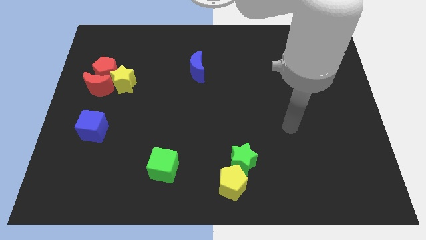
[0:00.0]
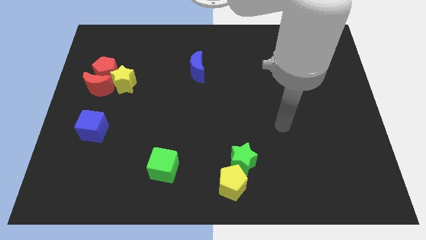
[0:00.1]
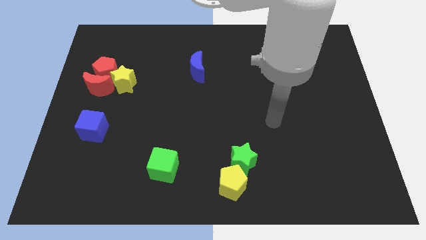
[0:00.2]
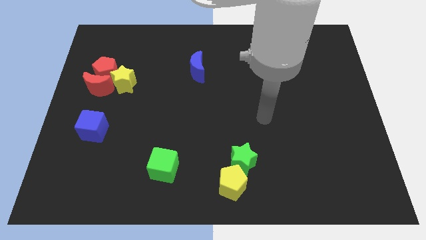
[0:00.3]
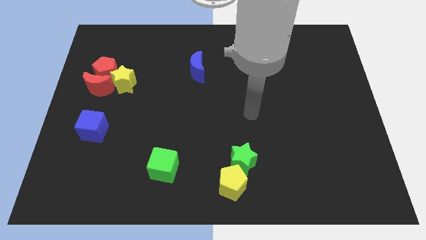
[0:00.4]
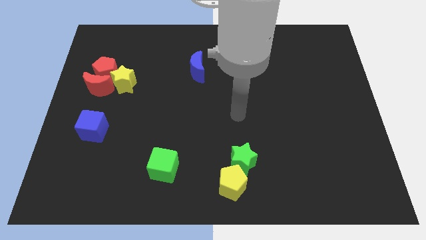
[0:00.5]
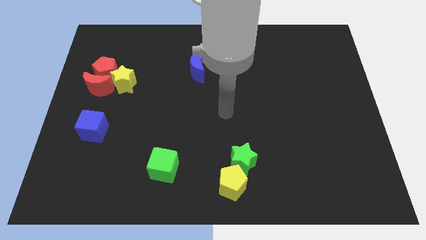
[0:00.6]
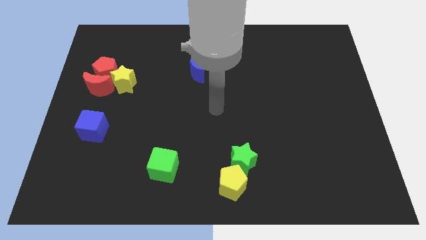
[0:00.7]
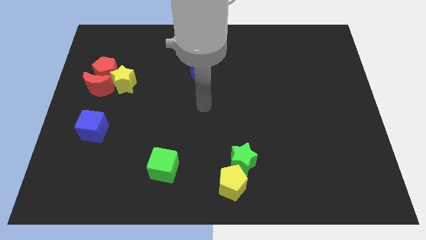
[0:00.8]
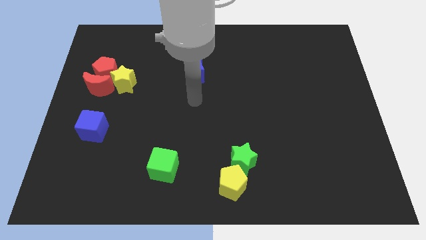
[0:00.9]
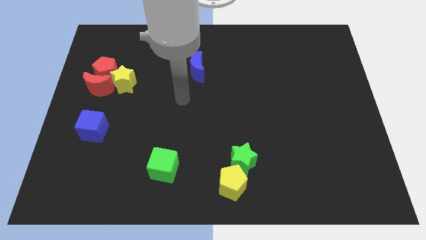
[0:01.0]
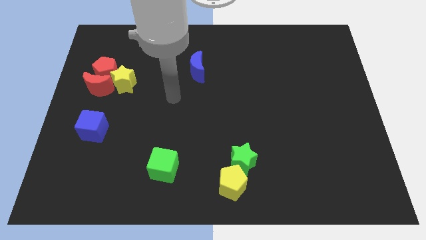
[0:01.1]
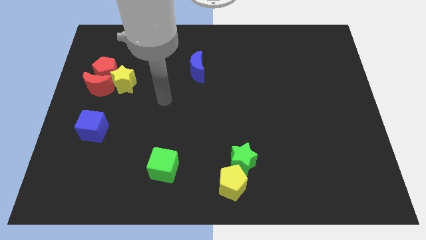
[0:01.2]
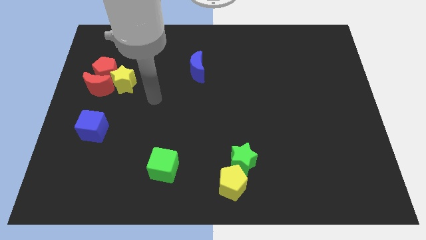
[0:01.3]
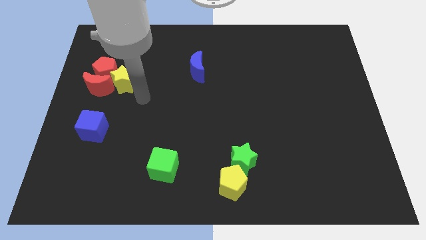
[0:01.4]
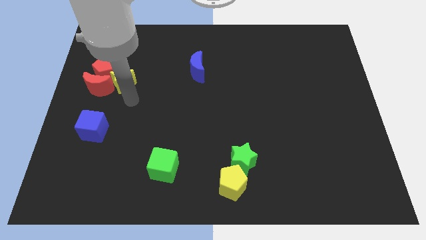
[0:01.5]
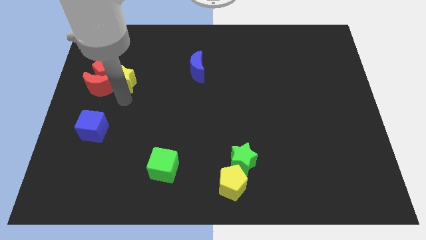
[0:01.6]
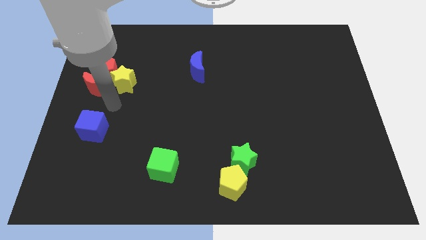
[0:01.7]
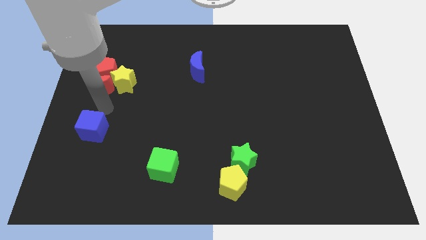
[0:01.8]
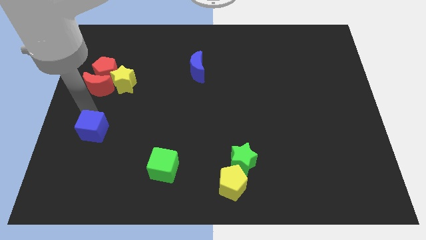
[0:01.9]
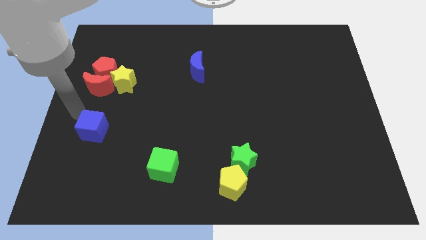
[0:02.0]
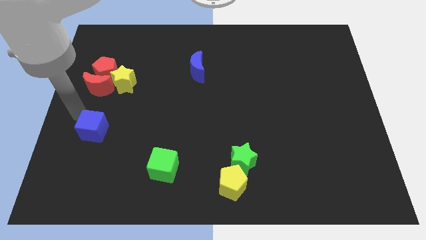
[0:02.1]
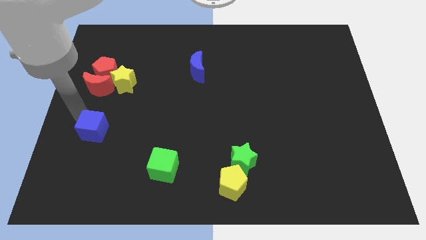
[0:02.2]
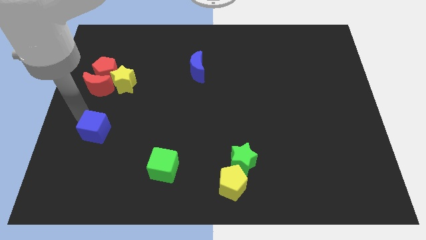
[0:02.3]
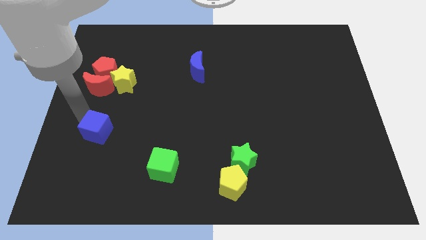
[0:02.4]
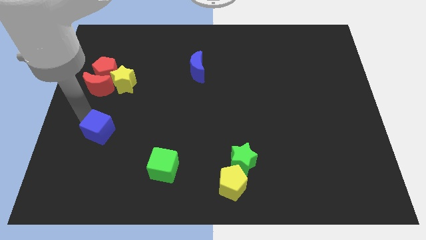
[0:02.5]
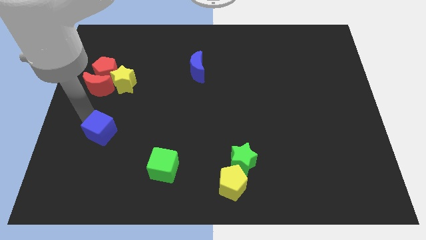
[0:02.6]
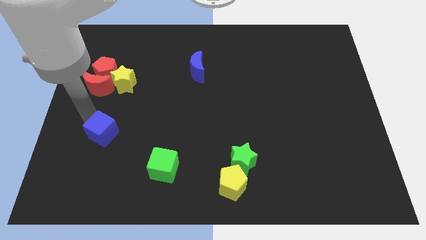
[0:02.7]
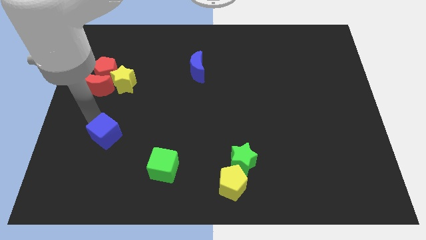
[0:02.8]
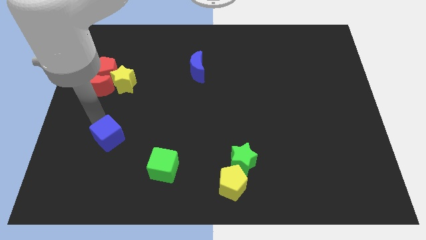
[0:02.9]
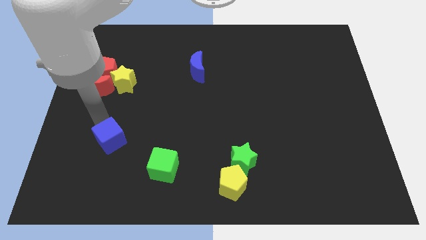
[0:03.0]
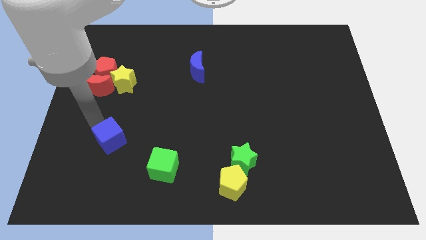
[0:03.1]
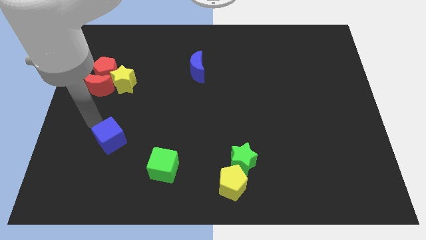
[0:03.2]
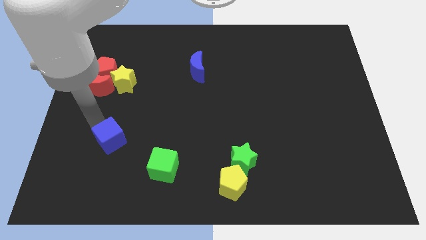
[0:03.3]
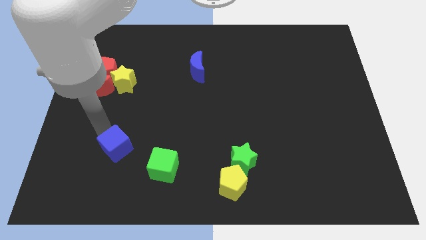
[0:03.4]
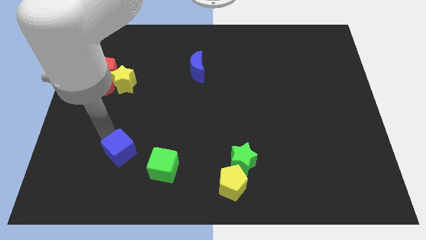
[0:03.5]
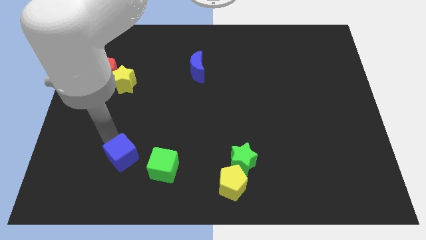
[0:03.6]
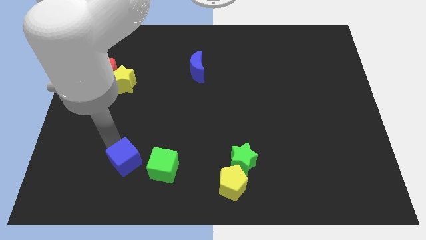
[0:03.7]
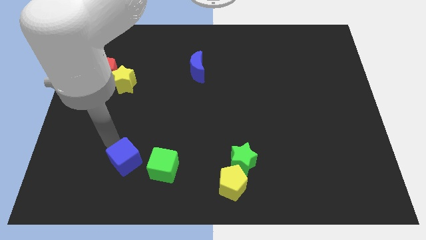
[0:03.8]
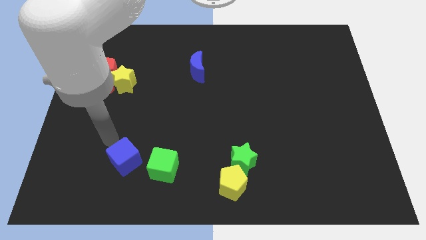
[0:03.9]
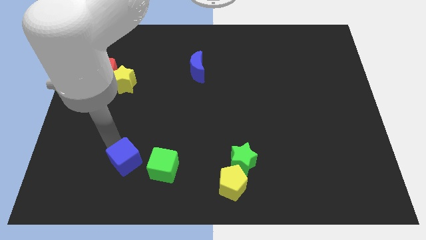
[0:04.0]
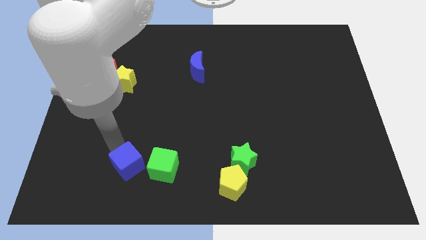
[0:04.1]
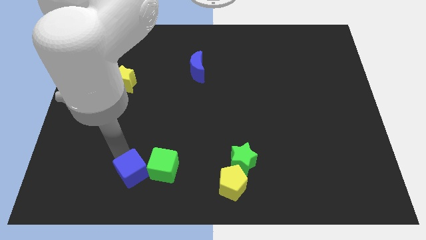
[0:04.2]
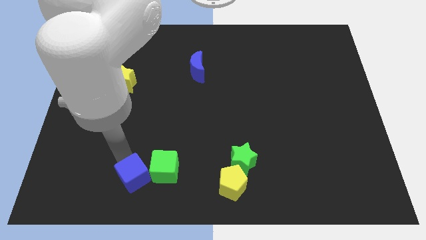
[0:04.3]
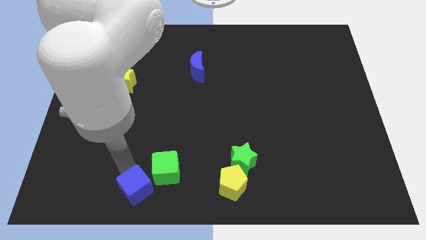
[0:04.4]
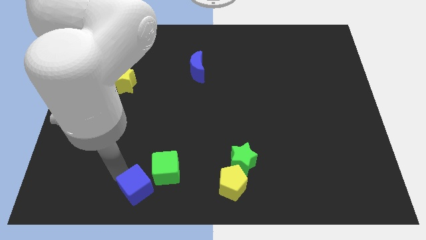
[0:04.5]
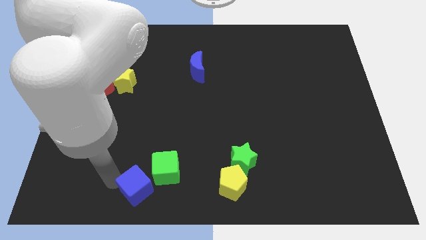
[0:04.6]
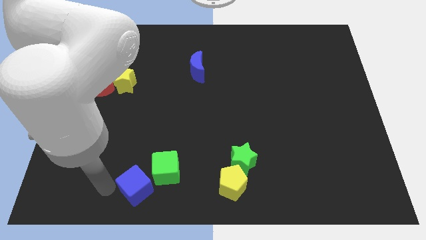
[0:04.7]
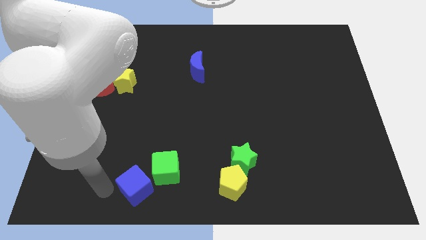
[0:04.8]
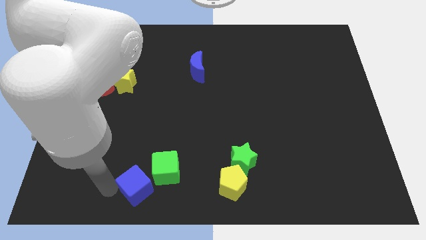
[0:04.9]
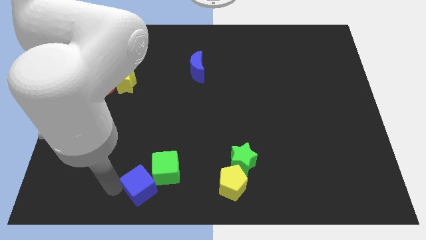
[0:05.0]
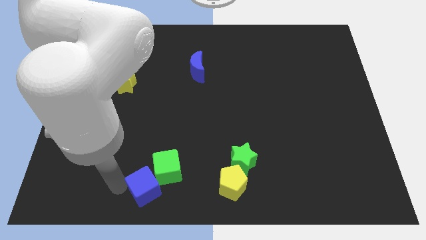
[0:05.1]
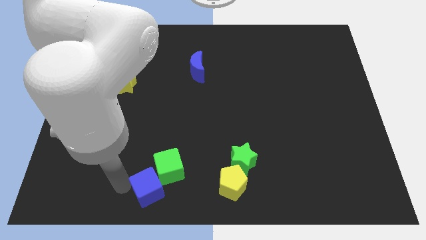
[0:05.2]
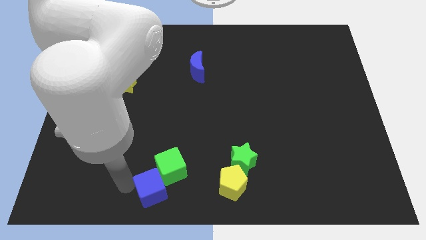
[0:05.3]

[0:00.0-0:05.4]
slide the blue cube just left of the yellow pentagon

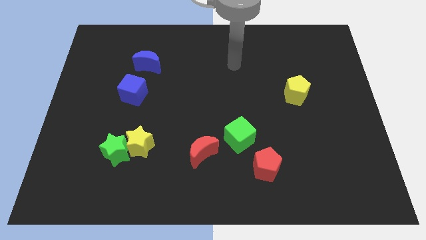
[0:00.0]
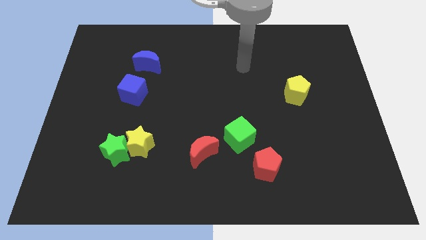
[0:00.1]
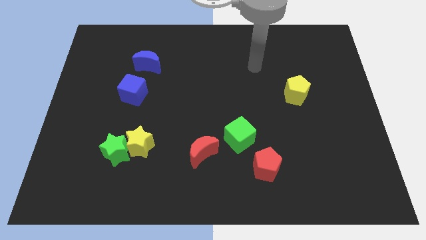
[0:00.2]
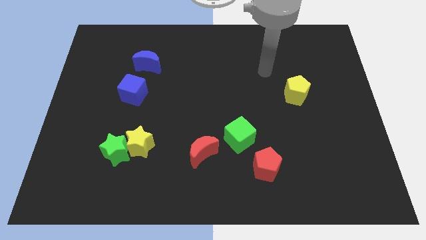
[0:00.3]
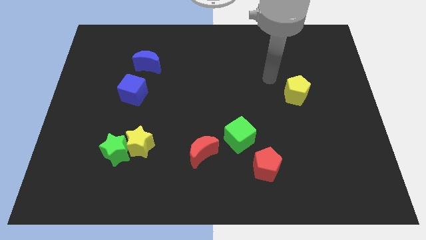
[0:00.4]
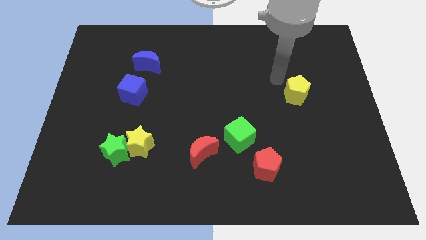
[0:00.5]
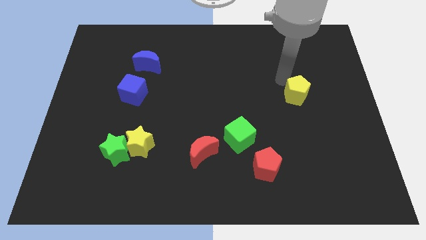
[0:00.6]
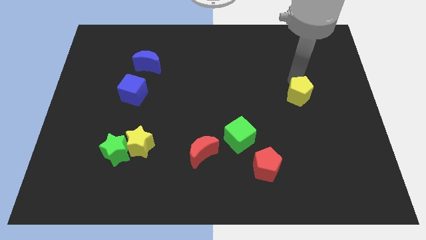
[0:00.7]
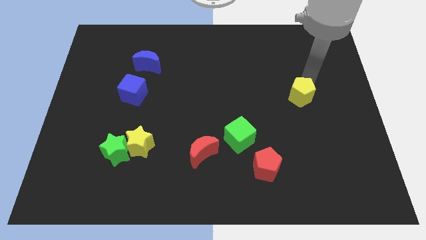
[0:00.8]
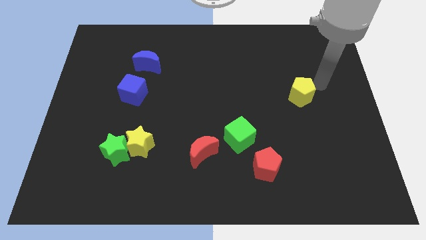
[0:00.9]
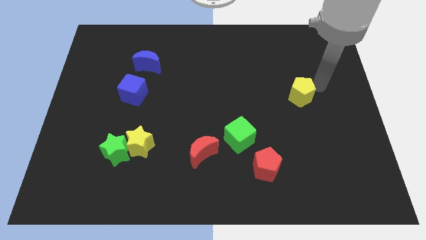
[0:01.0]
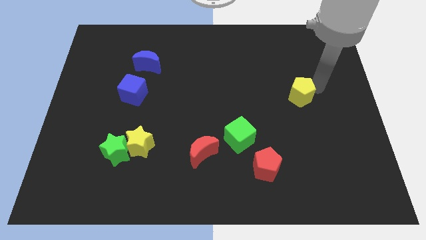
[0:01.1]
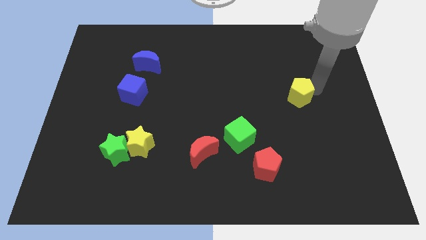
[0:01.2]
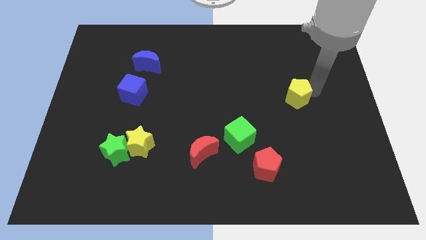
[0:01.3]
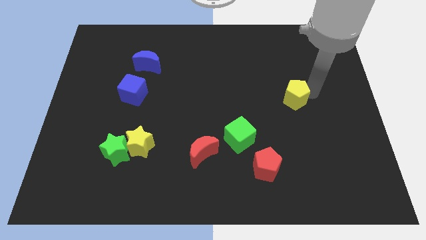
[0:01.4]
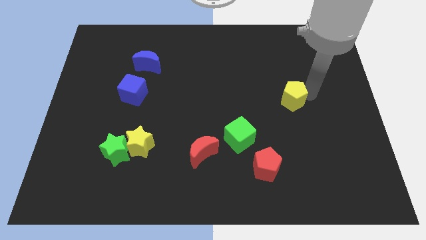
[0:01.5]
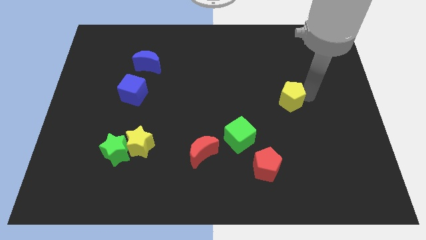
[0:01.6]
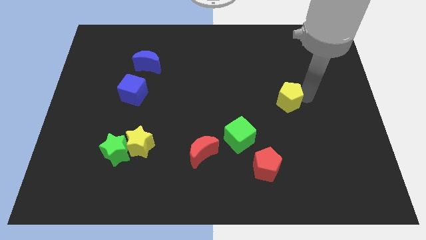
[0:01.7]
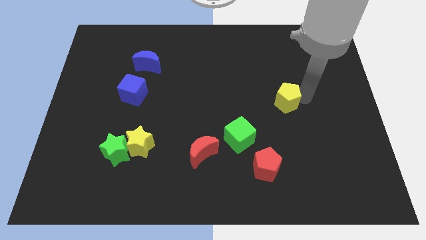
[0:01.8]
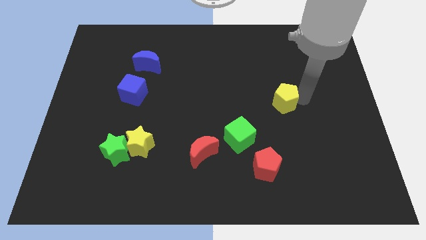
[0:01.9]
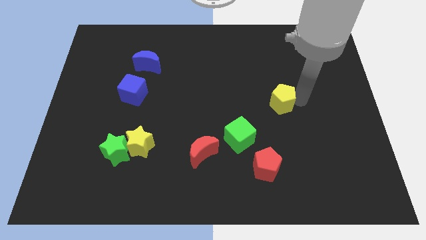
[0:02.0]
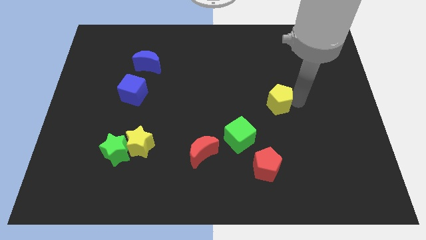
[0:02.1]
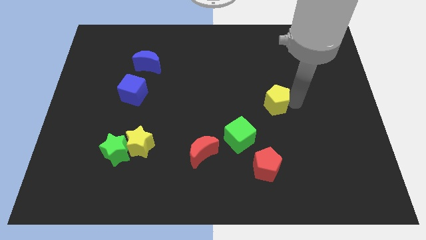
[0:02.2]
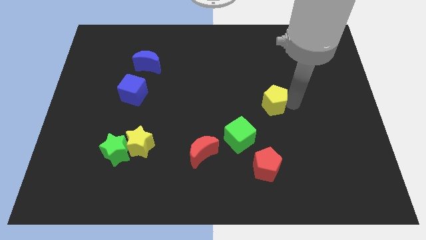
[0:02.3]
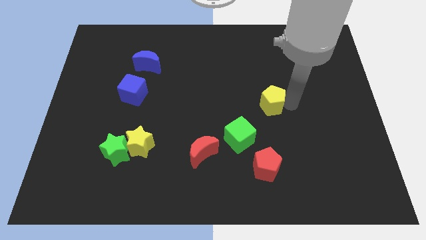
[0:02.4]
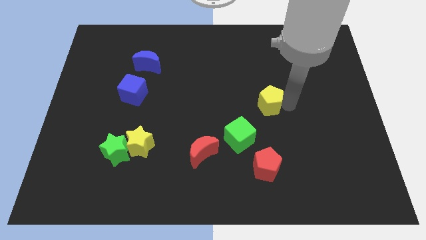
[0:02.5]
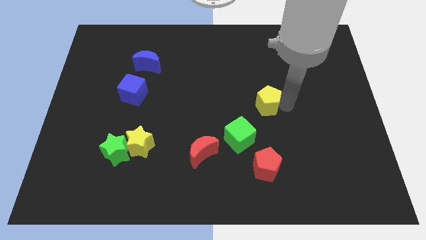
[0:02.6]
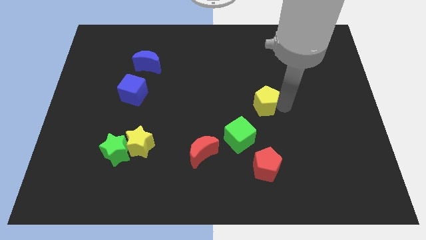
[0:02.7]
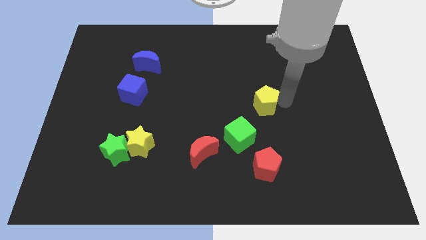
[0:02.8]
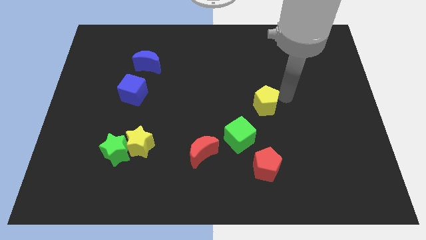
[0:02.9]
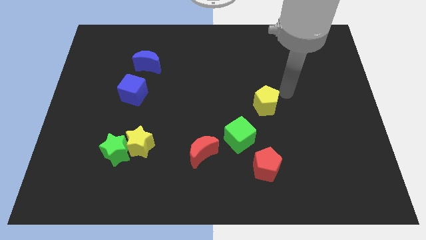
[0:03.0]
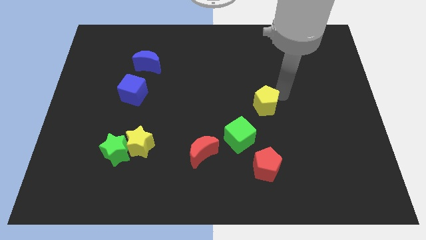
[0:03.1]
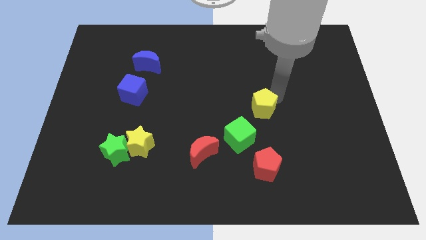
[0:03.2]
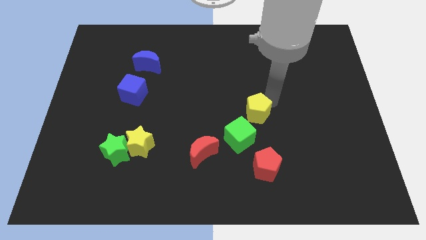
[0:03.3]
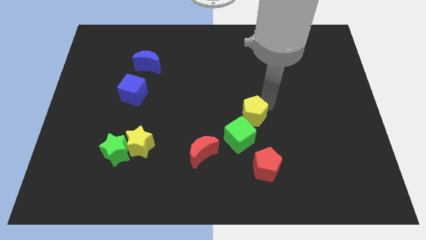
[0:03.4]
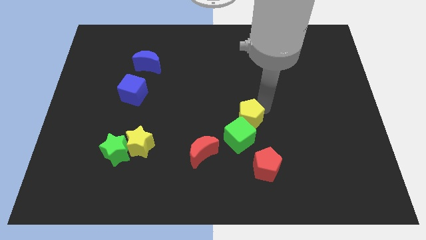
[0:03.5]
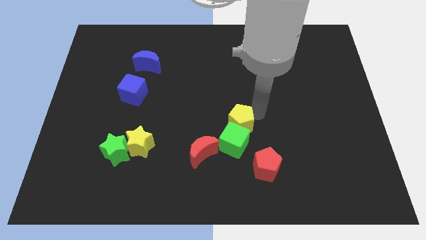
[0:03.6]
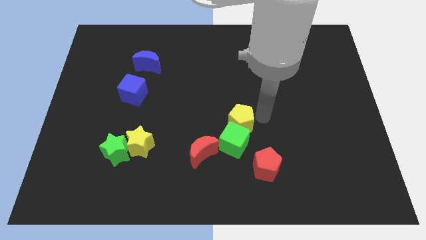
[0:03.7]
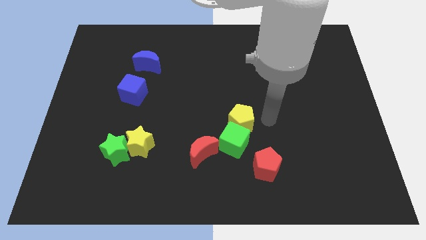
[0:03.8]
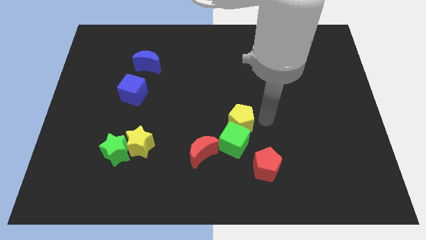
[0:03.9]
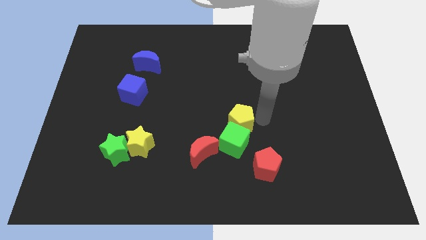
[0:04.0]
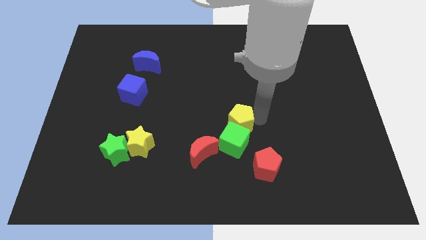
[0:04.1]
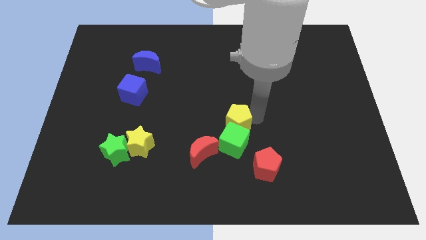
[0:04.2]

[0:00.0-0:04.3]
slide the yellow pentagon diagonally up and to the left of the green cube
